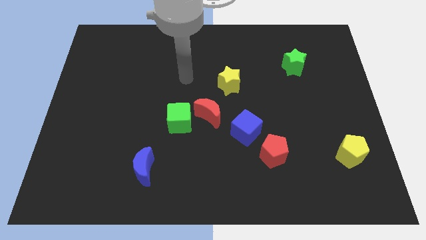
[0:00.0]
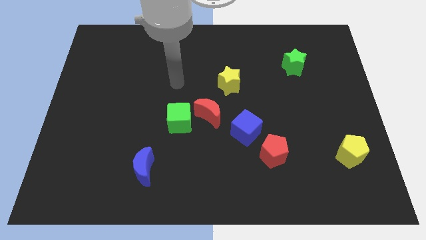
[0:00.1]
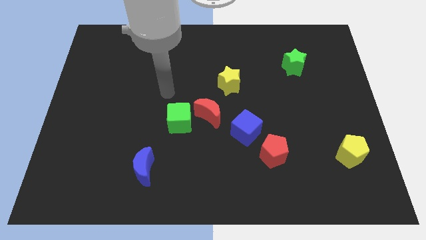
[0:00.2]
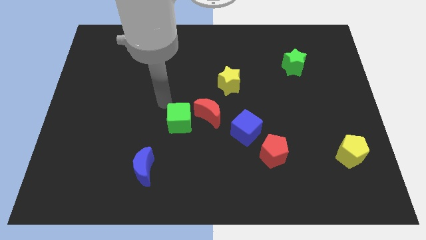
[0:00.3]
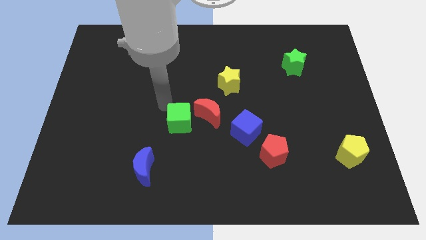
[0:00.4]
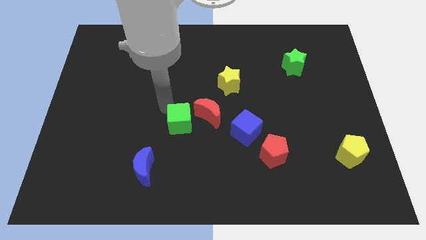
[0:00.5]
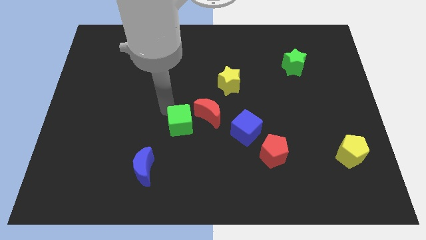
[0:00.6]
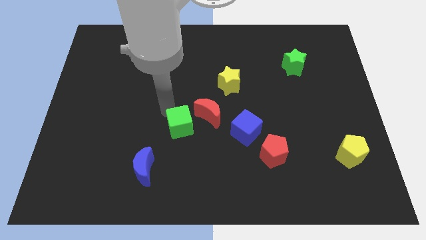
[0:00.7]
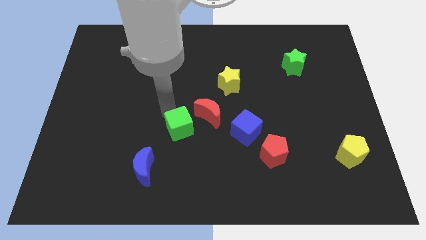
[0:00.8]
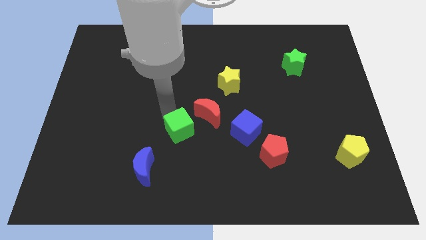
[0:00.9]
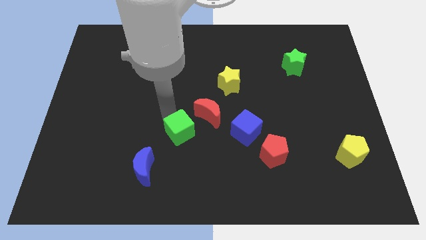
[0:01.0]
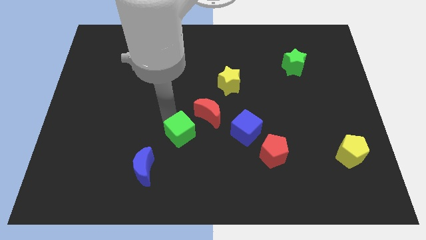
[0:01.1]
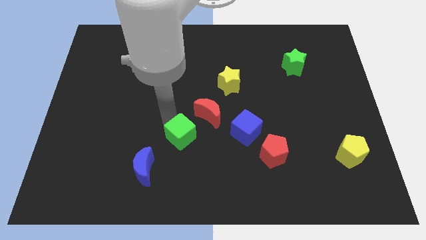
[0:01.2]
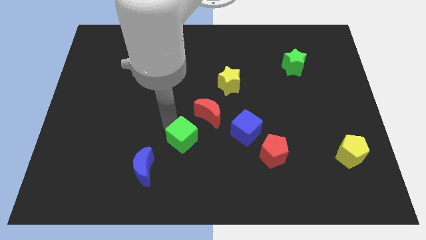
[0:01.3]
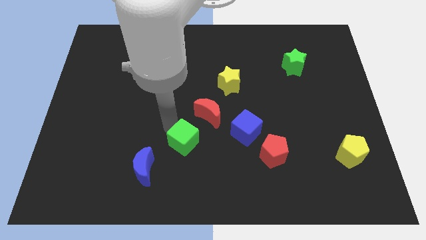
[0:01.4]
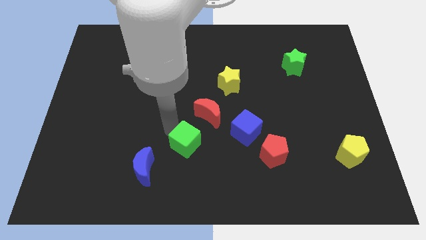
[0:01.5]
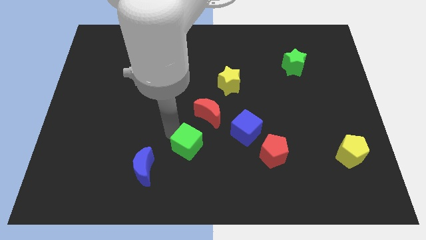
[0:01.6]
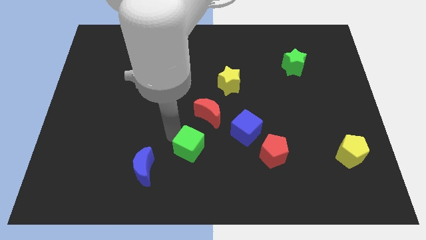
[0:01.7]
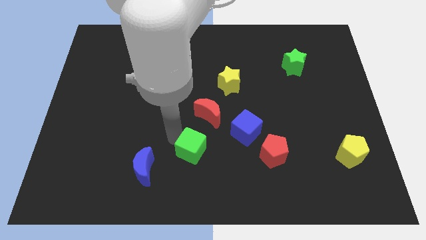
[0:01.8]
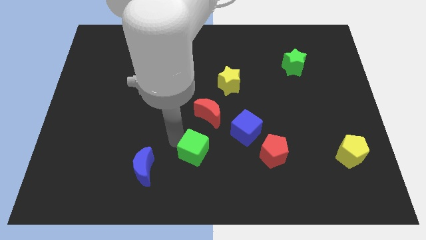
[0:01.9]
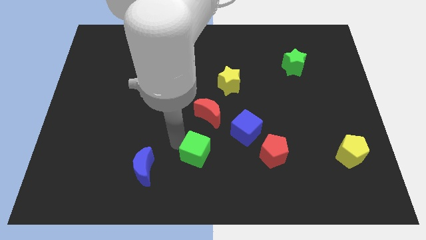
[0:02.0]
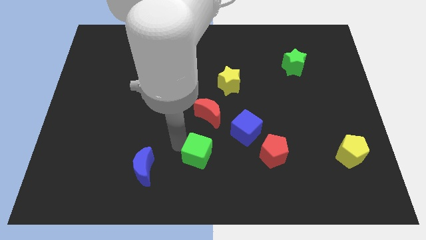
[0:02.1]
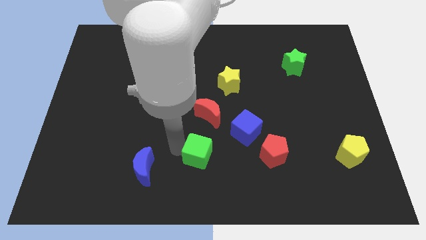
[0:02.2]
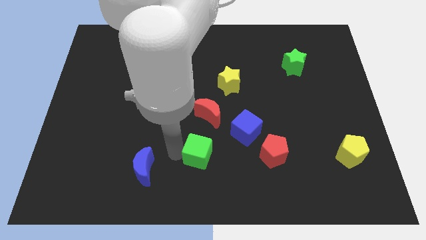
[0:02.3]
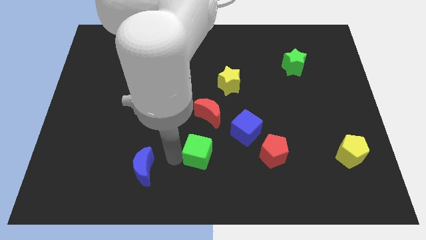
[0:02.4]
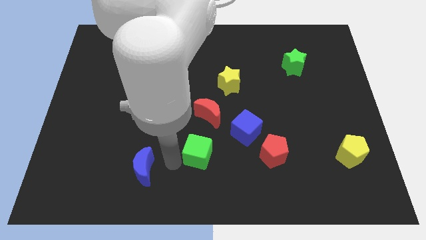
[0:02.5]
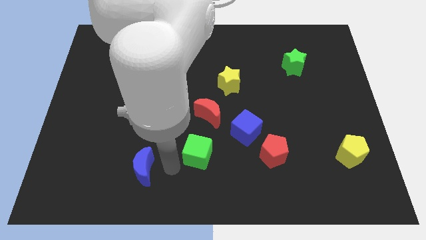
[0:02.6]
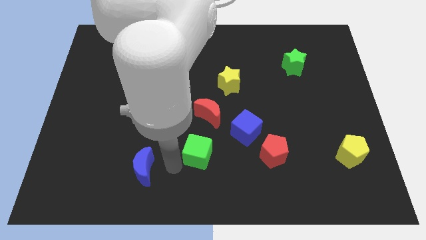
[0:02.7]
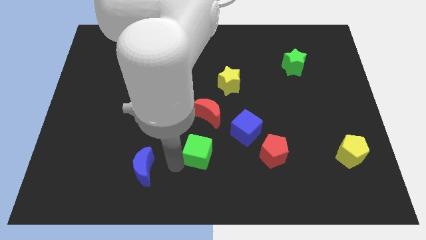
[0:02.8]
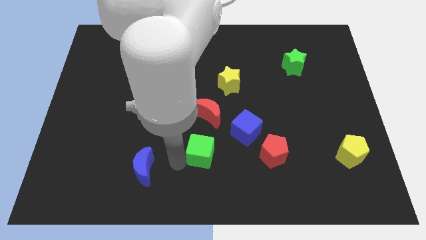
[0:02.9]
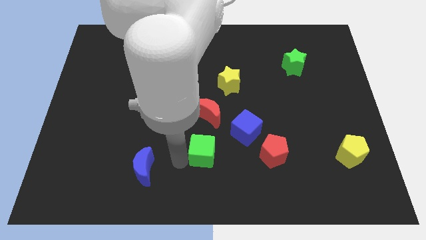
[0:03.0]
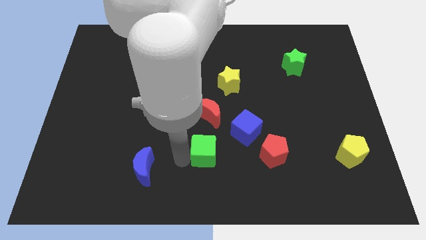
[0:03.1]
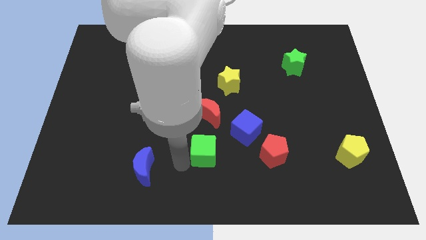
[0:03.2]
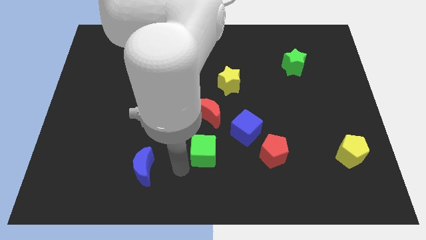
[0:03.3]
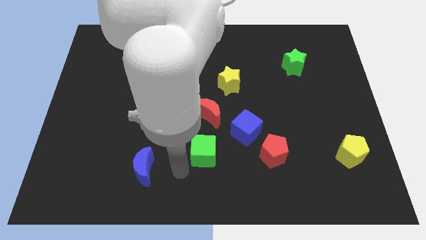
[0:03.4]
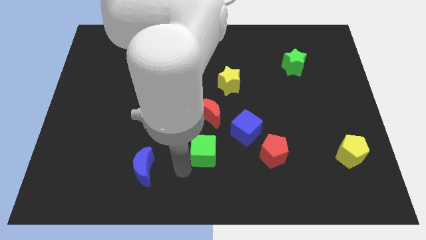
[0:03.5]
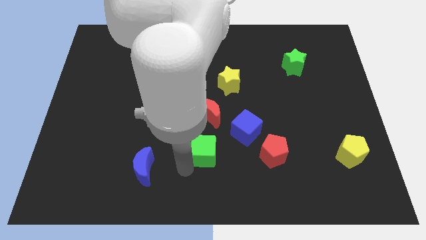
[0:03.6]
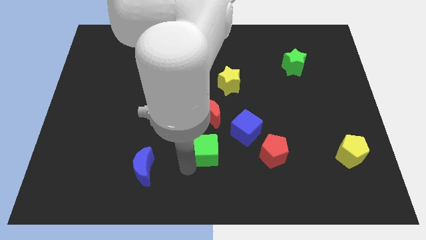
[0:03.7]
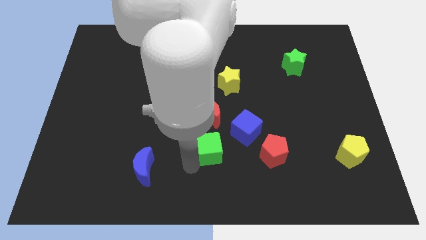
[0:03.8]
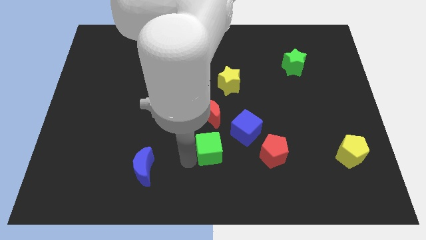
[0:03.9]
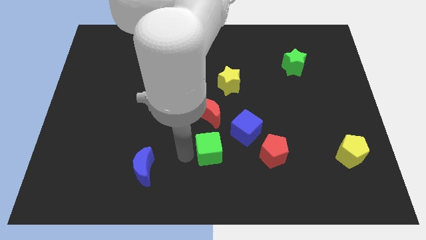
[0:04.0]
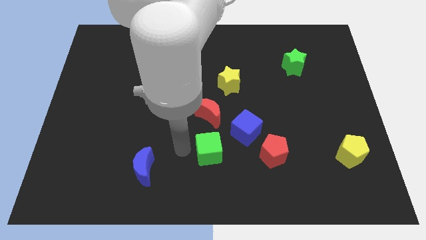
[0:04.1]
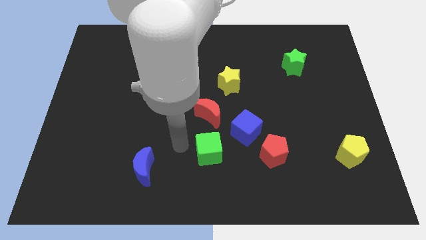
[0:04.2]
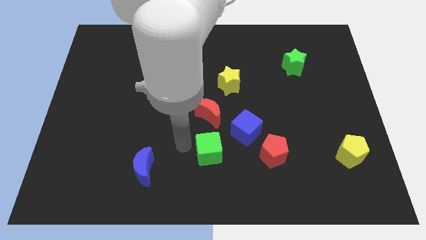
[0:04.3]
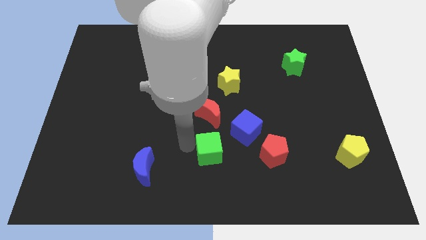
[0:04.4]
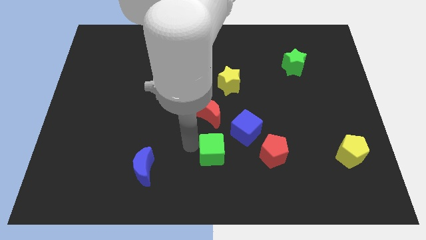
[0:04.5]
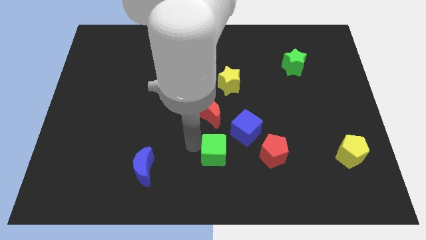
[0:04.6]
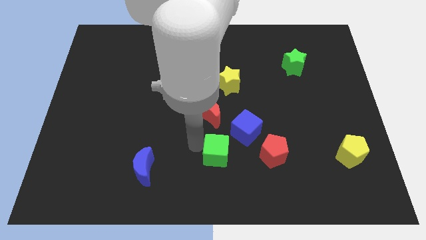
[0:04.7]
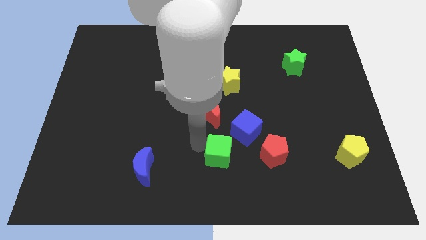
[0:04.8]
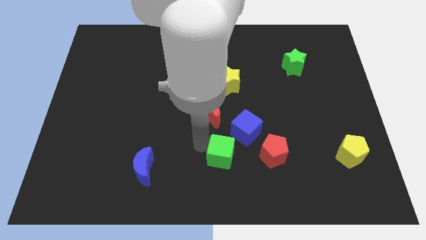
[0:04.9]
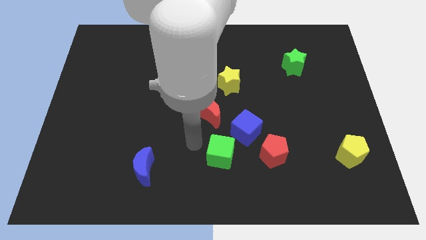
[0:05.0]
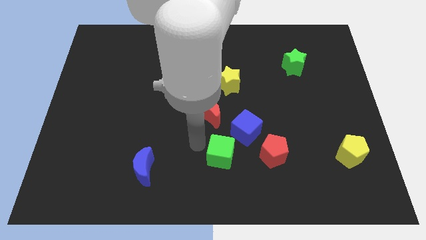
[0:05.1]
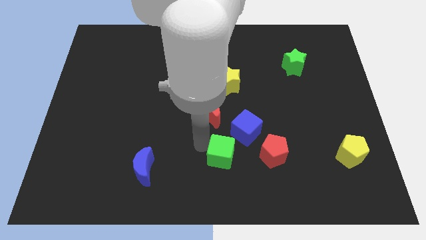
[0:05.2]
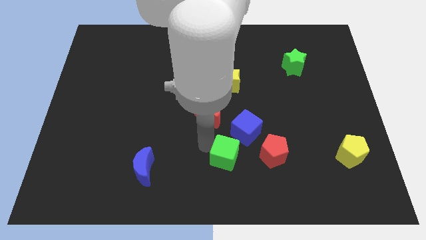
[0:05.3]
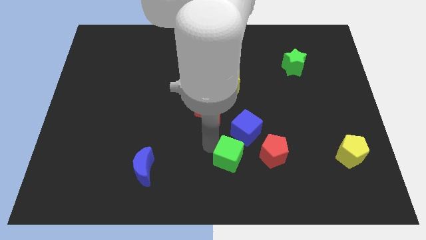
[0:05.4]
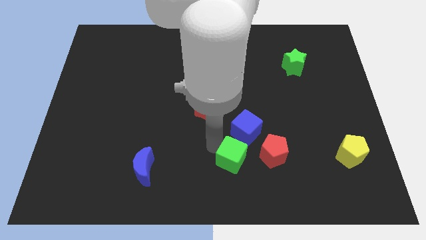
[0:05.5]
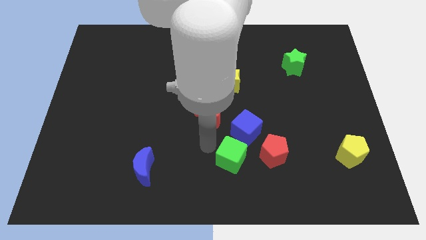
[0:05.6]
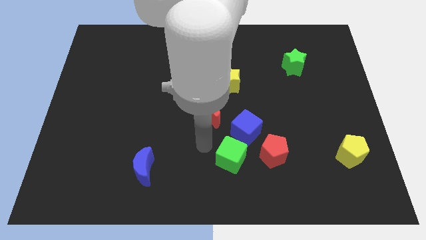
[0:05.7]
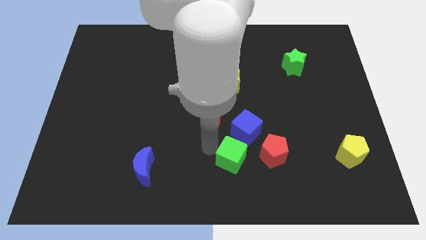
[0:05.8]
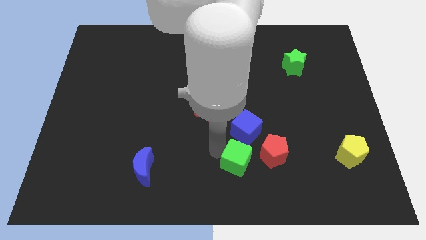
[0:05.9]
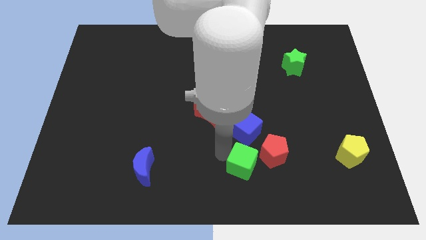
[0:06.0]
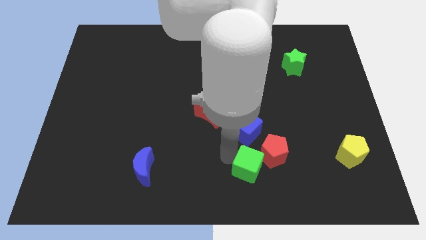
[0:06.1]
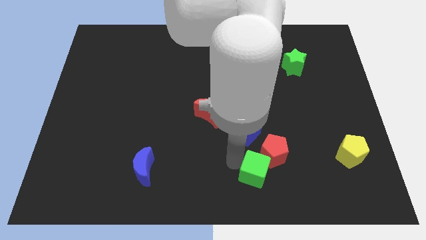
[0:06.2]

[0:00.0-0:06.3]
push the green cube to the red pentagon

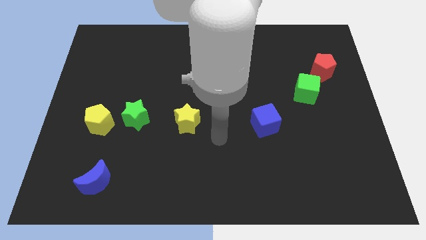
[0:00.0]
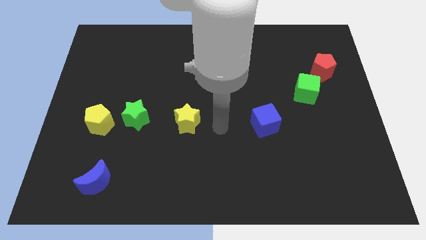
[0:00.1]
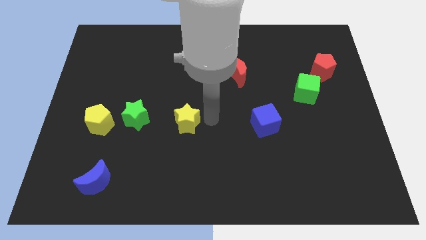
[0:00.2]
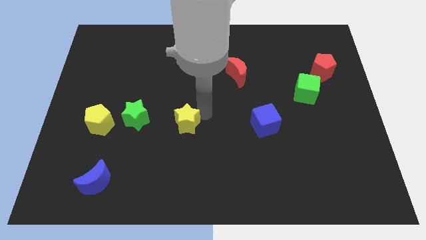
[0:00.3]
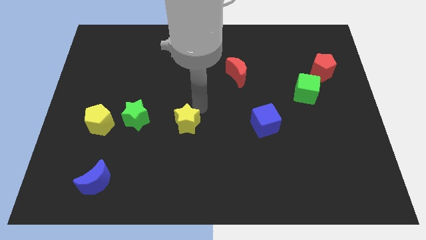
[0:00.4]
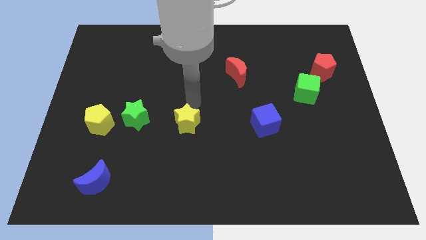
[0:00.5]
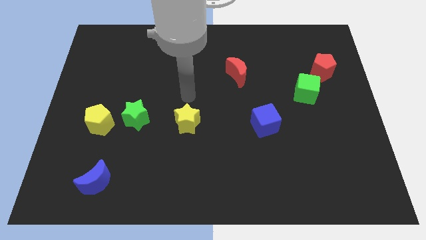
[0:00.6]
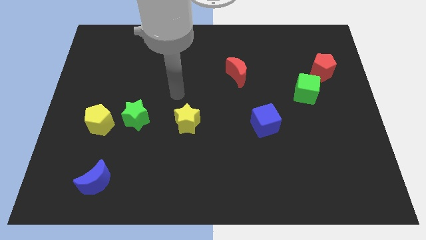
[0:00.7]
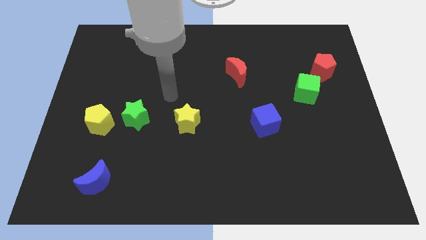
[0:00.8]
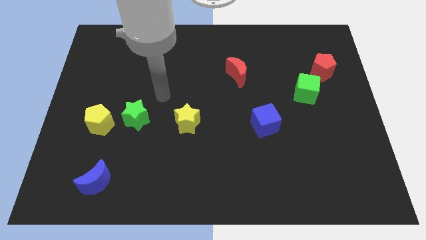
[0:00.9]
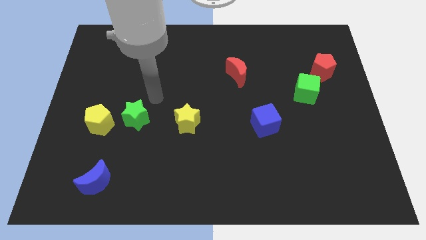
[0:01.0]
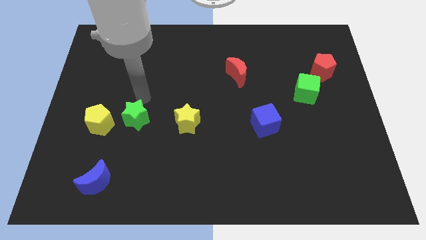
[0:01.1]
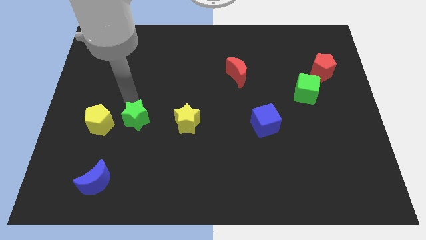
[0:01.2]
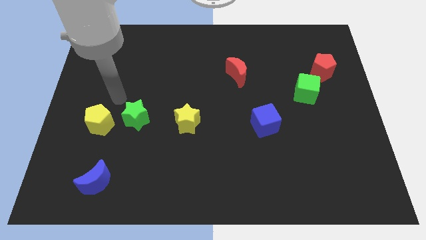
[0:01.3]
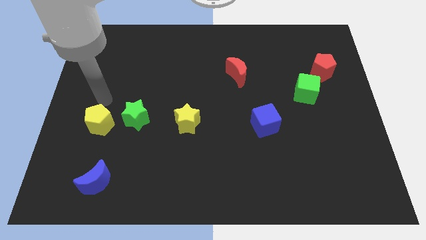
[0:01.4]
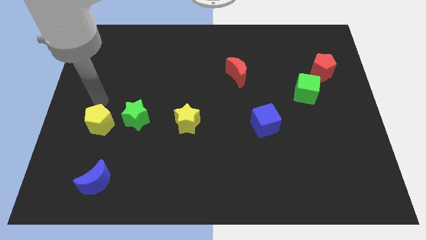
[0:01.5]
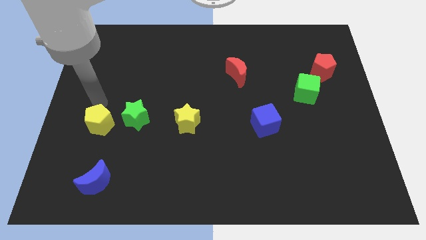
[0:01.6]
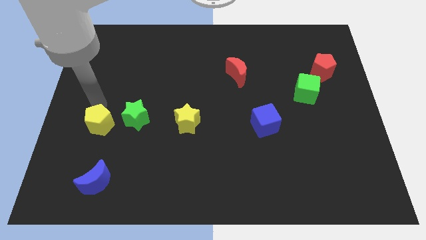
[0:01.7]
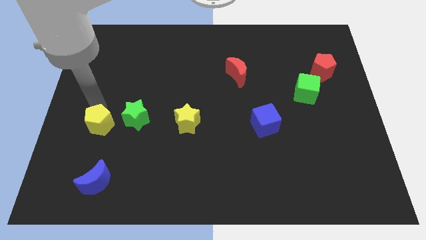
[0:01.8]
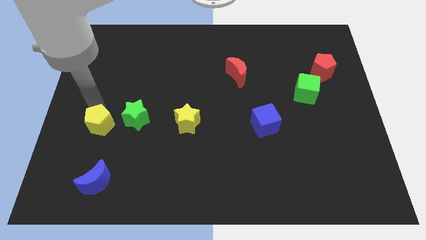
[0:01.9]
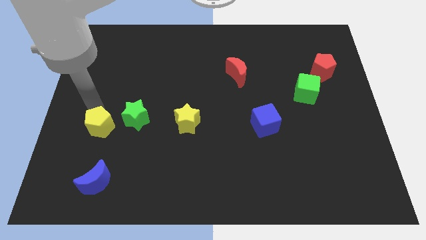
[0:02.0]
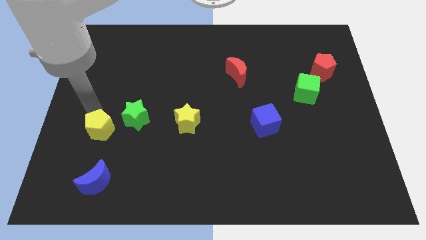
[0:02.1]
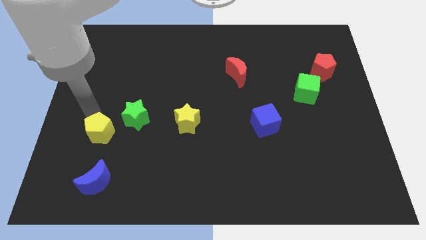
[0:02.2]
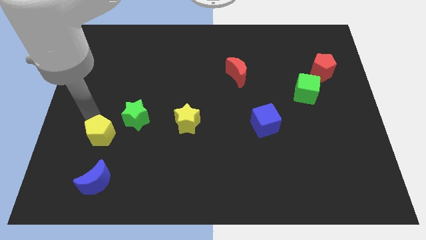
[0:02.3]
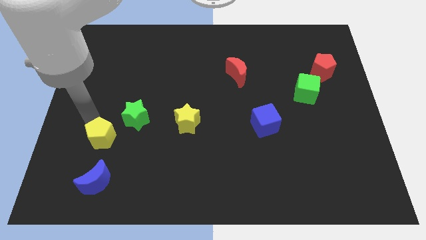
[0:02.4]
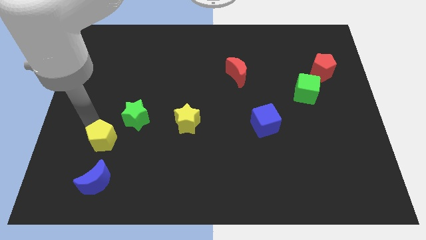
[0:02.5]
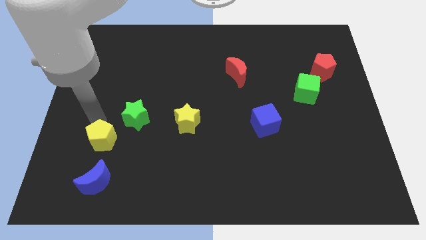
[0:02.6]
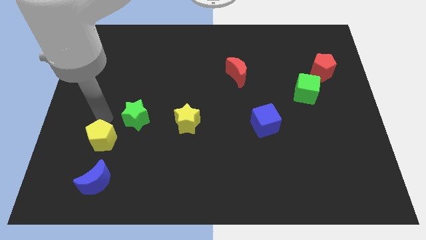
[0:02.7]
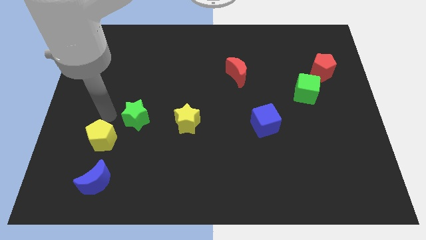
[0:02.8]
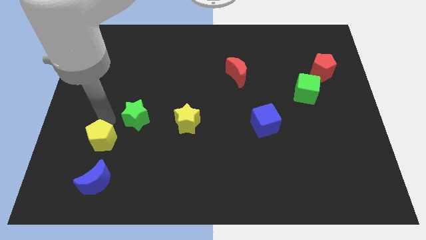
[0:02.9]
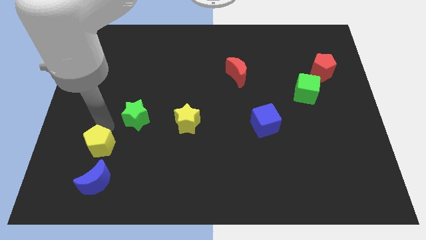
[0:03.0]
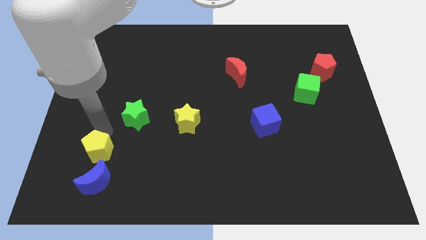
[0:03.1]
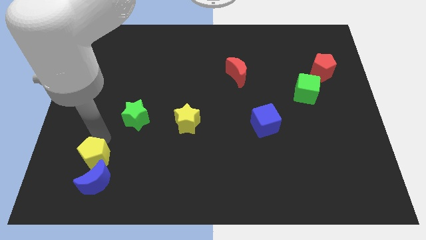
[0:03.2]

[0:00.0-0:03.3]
slide the yellow pentagon close to the blue moon
